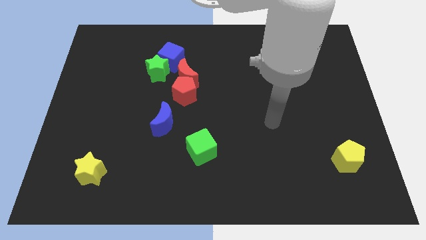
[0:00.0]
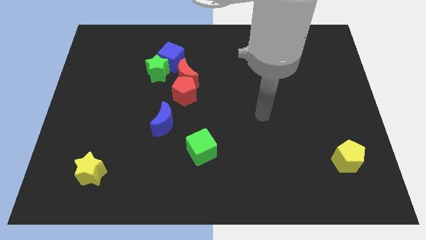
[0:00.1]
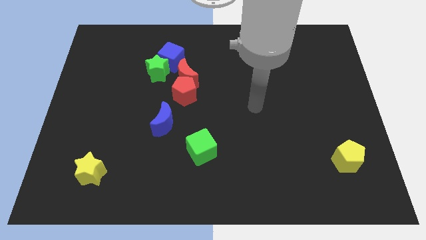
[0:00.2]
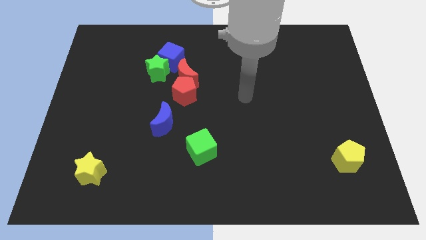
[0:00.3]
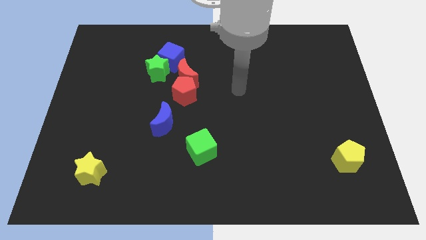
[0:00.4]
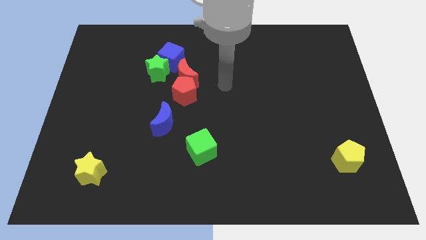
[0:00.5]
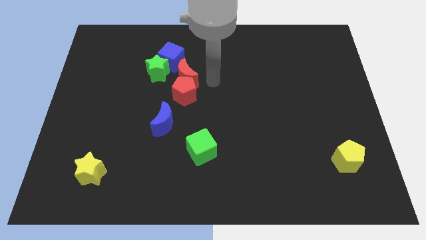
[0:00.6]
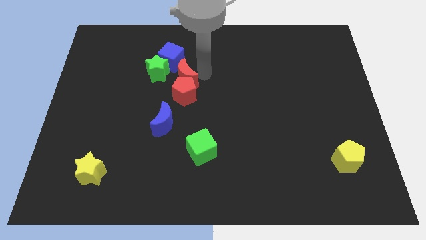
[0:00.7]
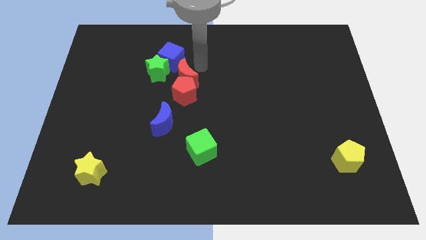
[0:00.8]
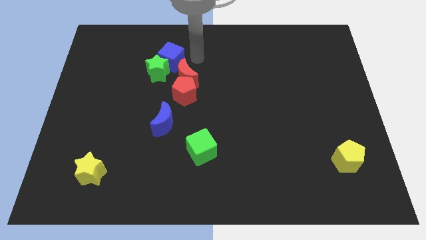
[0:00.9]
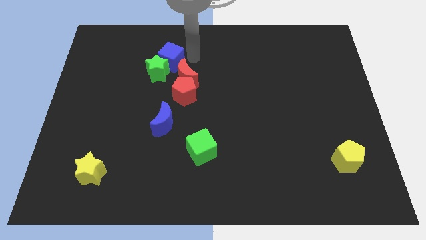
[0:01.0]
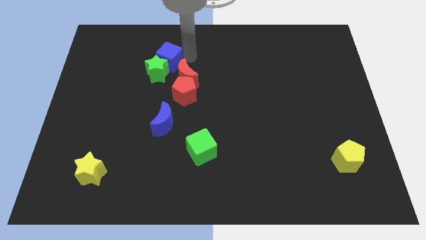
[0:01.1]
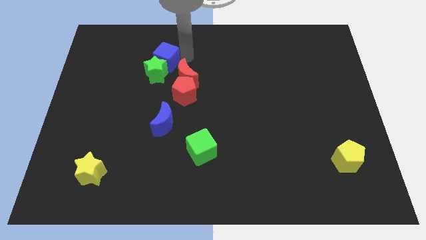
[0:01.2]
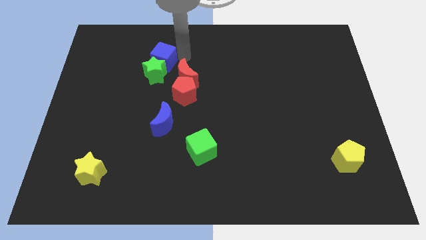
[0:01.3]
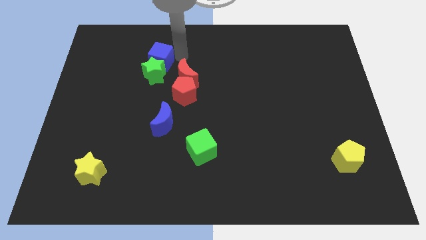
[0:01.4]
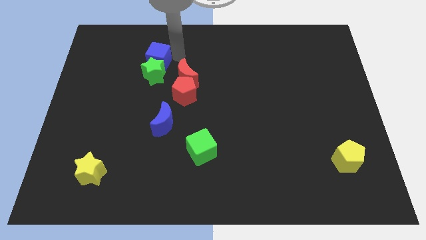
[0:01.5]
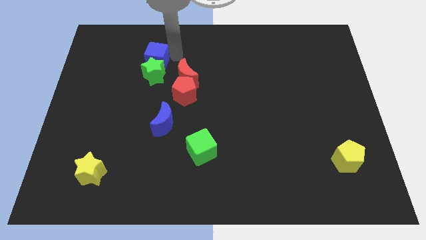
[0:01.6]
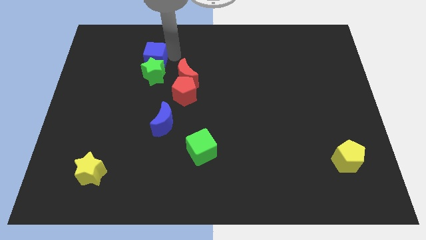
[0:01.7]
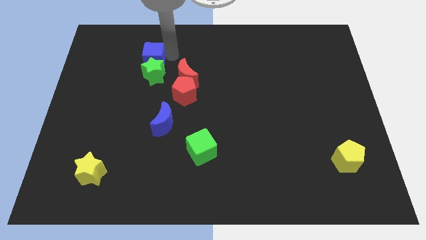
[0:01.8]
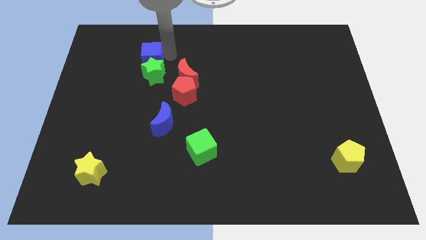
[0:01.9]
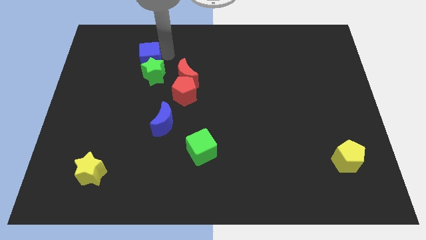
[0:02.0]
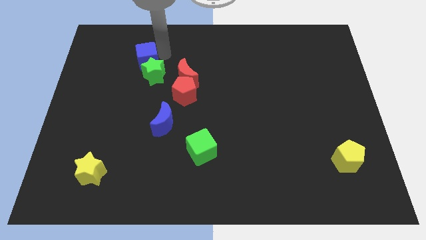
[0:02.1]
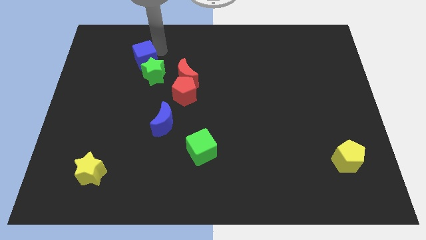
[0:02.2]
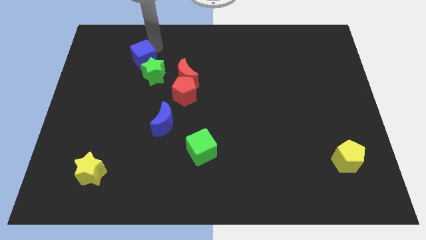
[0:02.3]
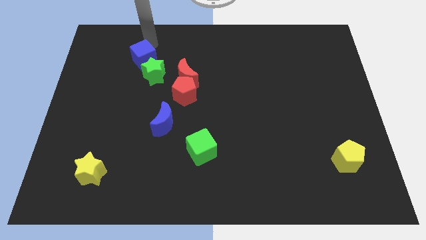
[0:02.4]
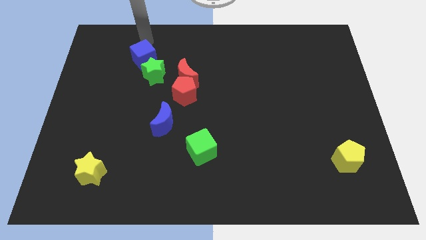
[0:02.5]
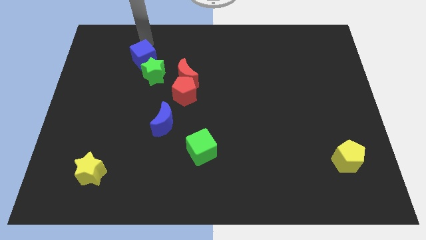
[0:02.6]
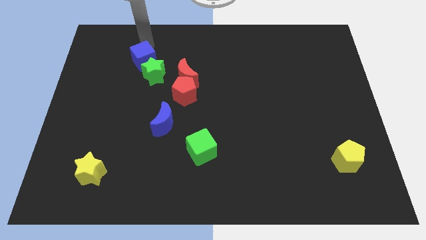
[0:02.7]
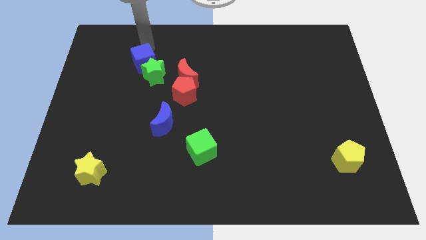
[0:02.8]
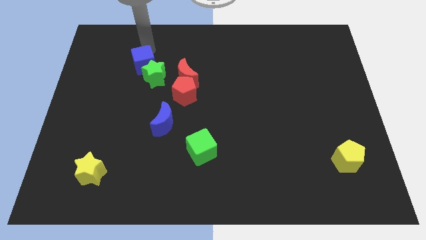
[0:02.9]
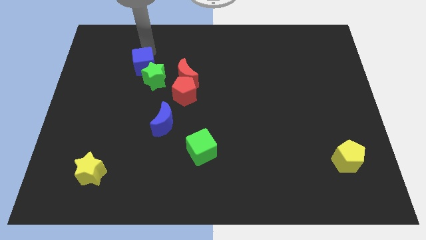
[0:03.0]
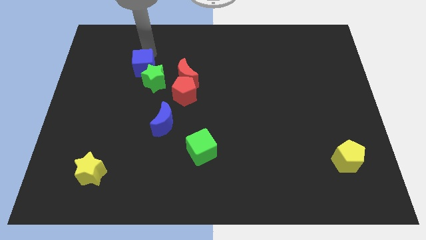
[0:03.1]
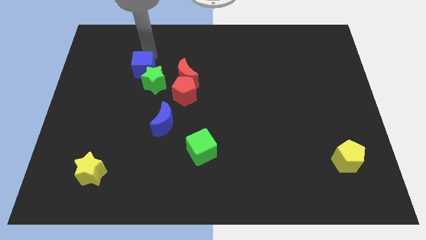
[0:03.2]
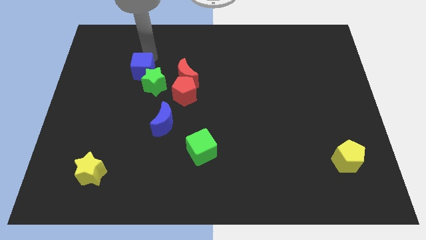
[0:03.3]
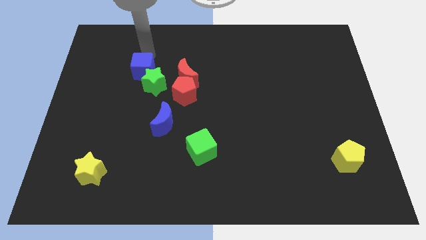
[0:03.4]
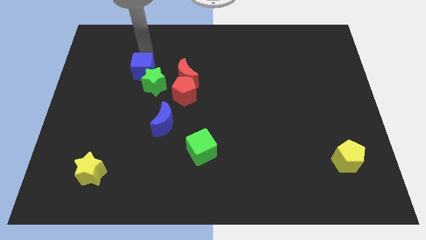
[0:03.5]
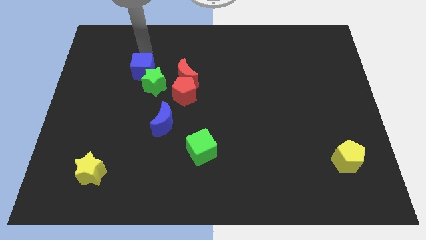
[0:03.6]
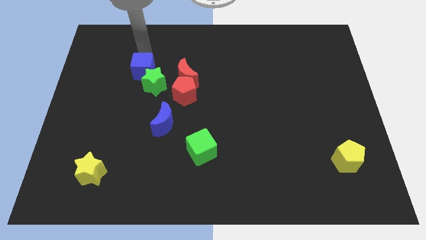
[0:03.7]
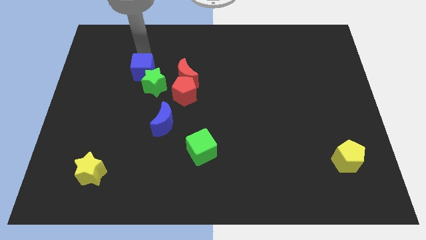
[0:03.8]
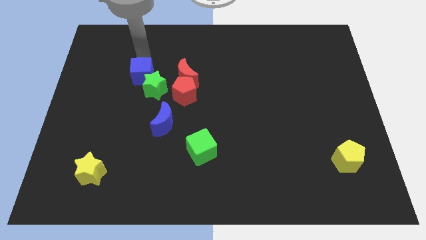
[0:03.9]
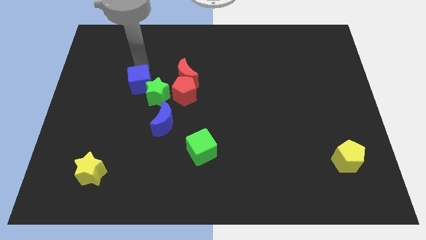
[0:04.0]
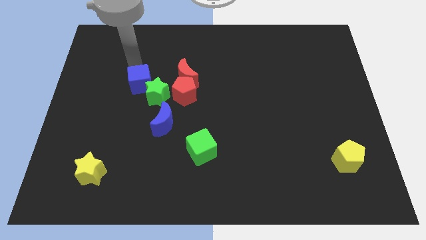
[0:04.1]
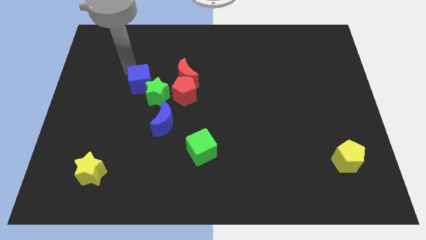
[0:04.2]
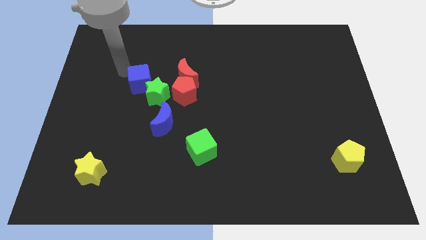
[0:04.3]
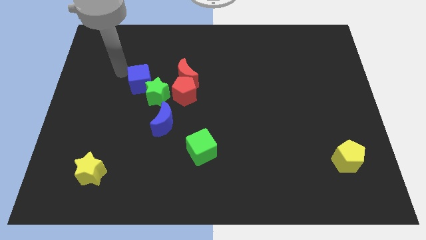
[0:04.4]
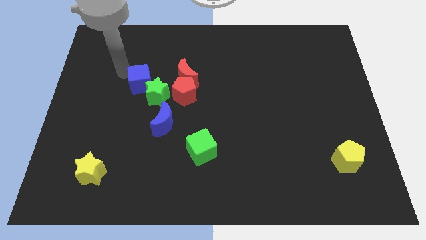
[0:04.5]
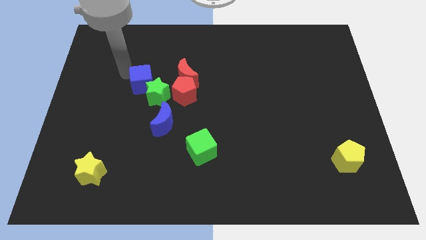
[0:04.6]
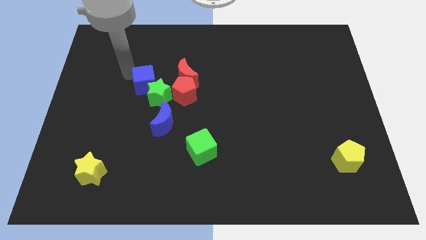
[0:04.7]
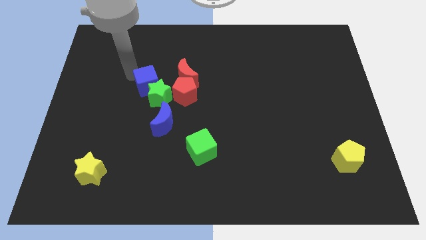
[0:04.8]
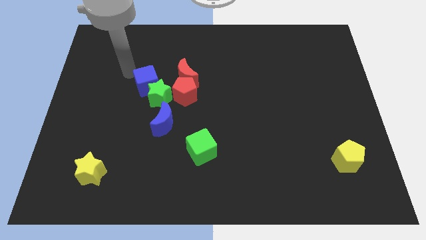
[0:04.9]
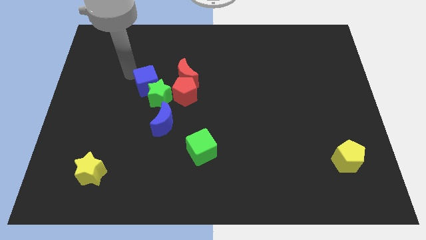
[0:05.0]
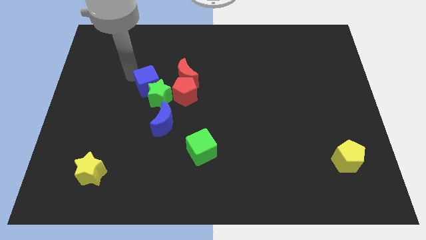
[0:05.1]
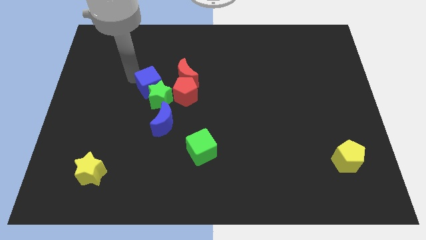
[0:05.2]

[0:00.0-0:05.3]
push the blue cube to the bottom left of the red moon

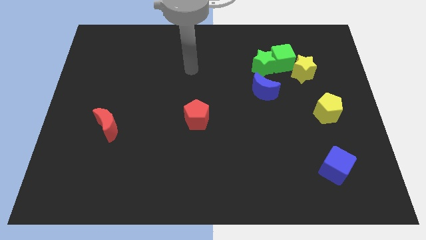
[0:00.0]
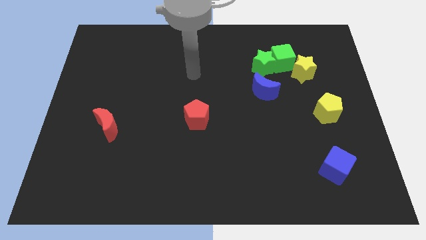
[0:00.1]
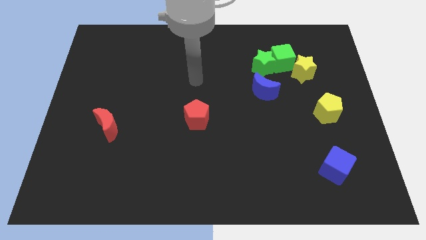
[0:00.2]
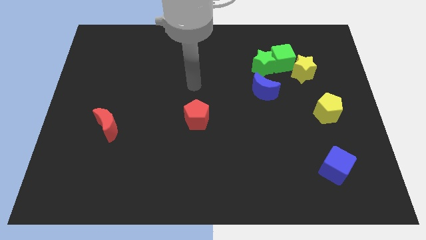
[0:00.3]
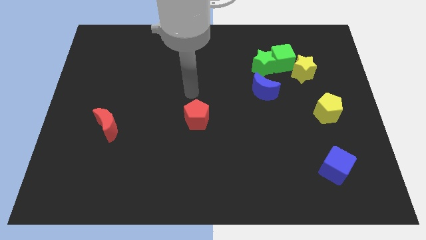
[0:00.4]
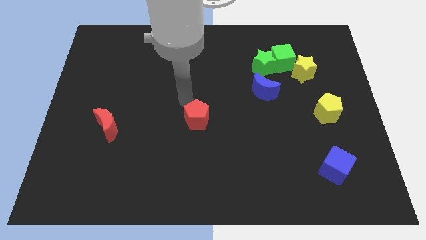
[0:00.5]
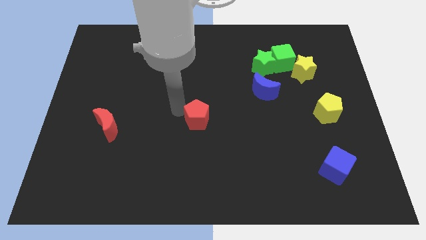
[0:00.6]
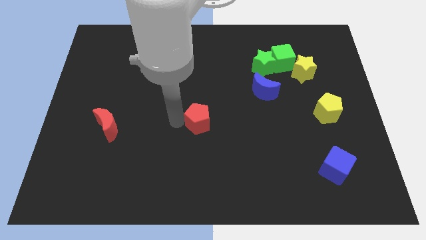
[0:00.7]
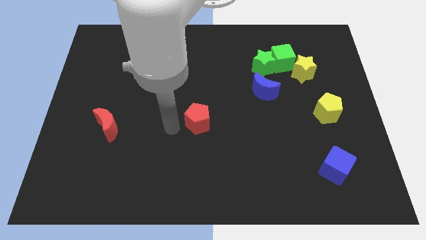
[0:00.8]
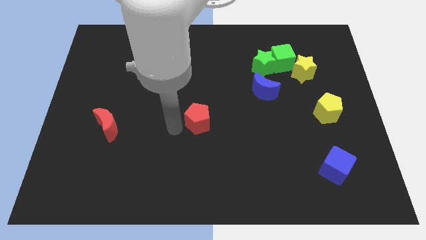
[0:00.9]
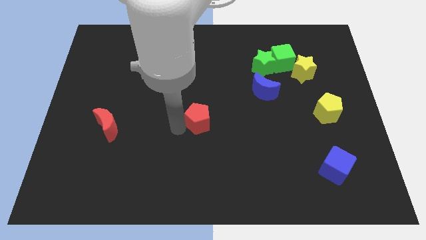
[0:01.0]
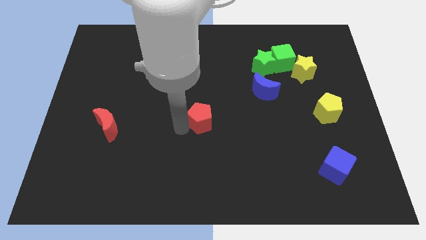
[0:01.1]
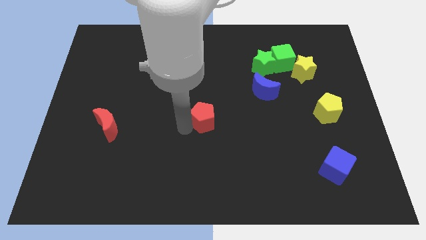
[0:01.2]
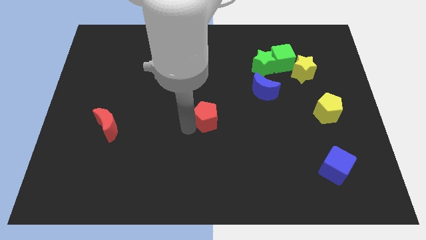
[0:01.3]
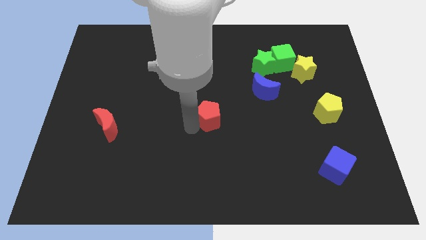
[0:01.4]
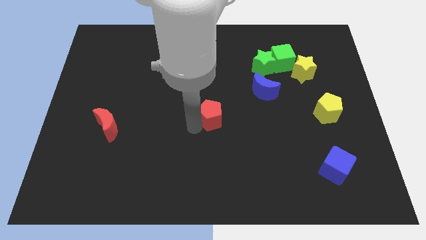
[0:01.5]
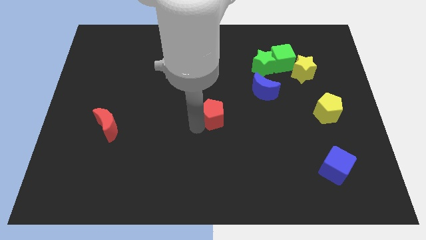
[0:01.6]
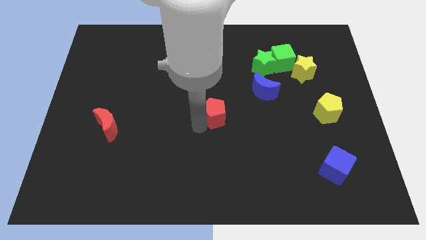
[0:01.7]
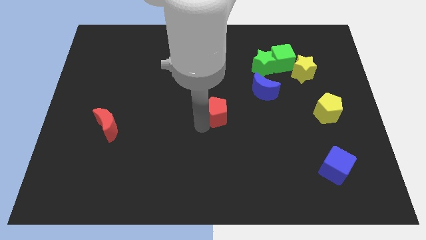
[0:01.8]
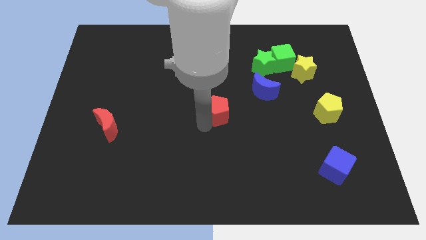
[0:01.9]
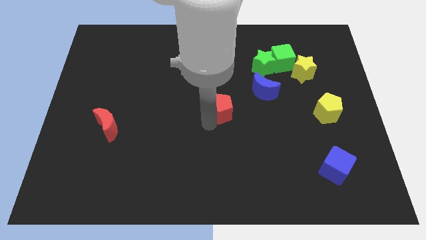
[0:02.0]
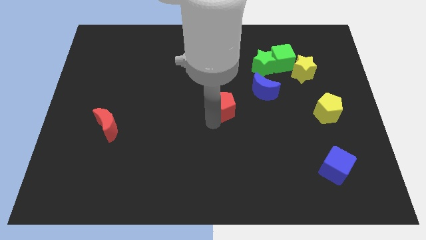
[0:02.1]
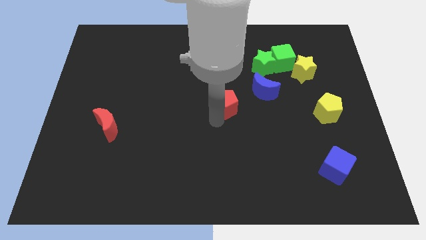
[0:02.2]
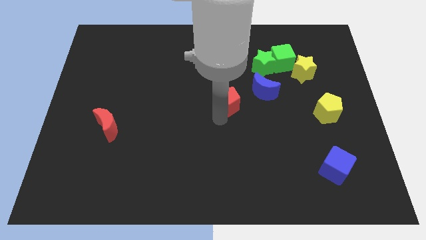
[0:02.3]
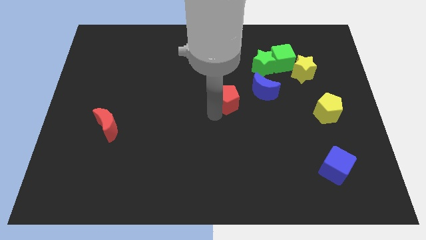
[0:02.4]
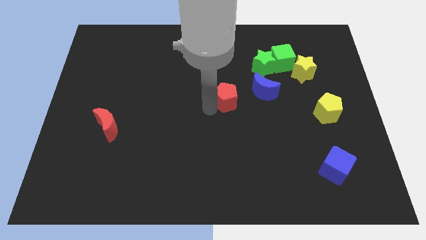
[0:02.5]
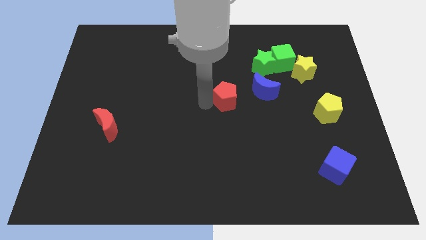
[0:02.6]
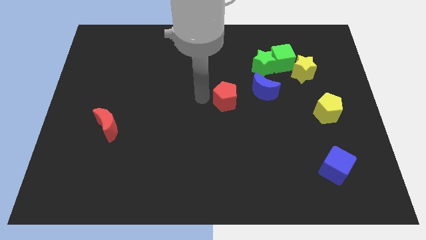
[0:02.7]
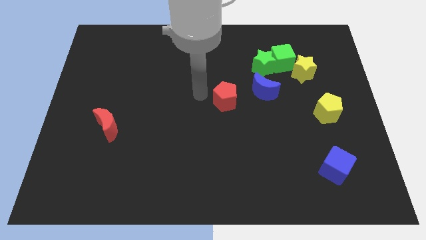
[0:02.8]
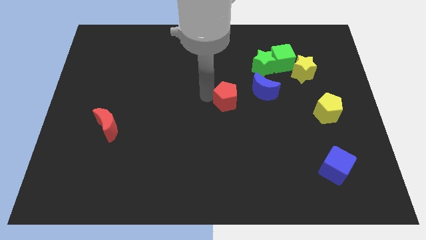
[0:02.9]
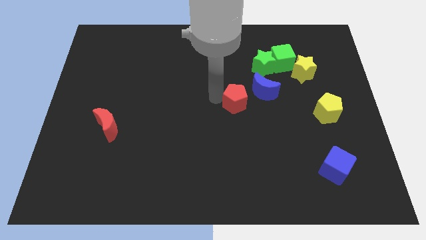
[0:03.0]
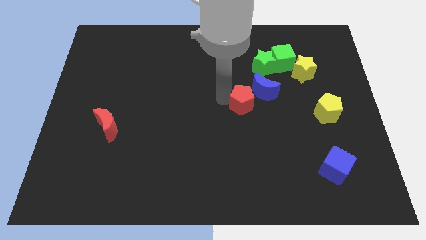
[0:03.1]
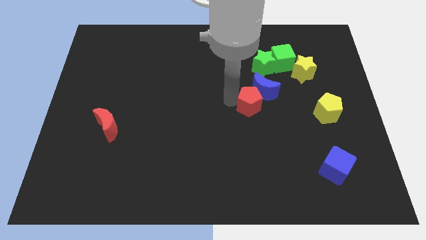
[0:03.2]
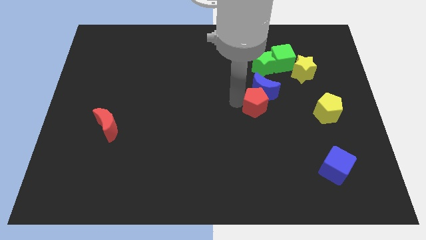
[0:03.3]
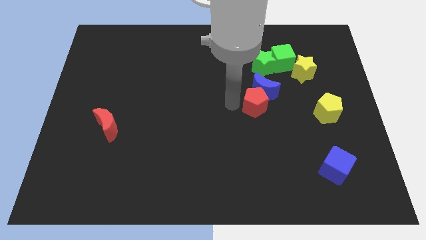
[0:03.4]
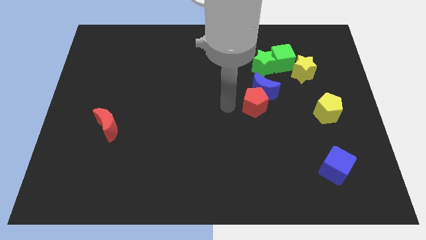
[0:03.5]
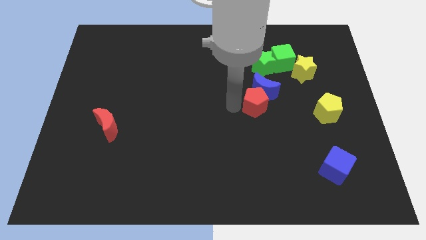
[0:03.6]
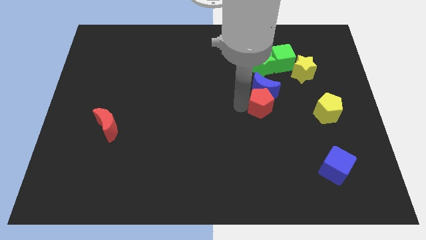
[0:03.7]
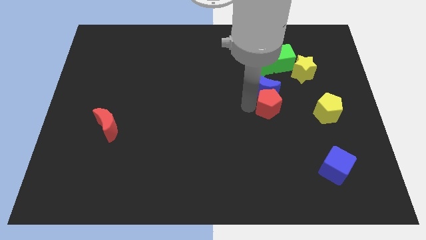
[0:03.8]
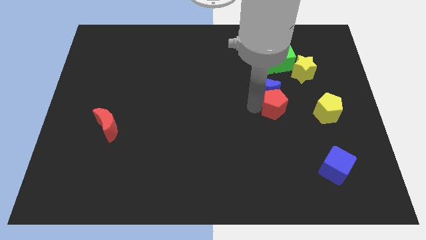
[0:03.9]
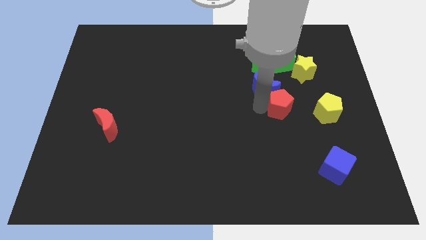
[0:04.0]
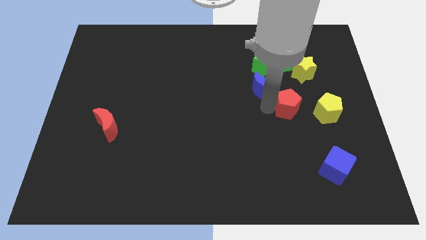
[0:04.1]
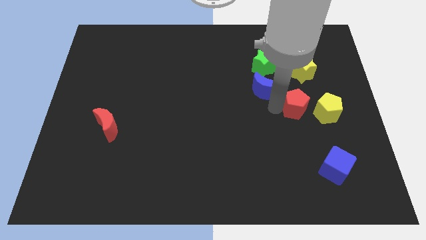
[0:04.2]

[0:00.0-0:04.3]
move the red pentagon below the yellow star
